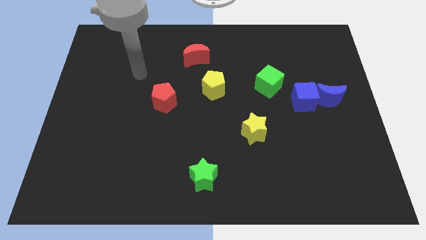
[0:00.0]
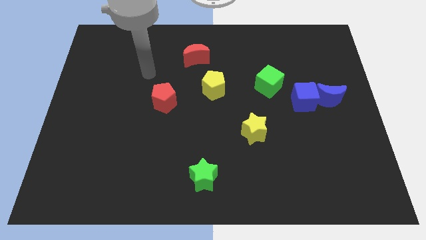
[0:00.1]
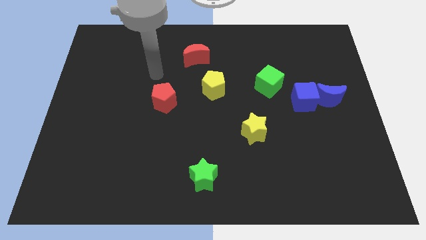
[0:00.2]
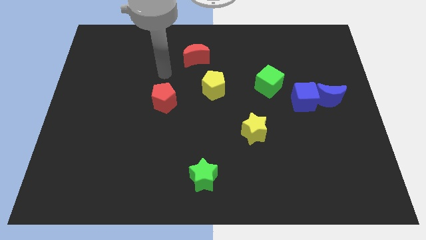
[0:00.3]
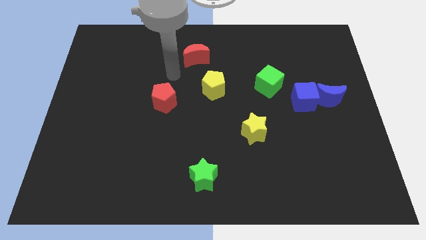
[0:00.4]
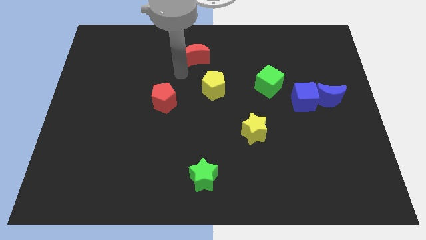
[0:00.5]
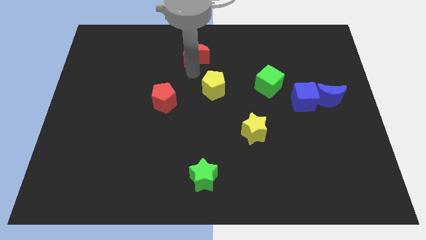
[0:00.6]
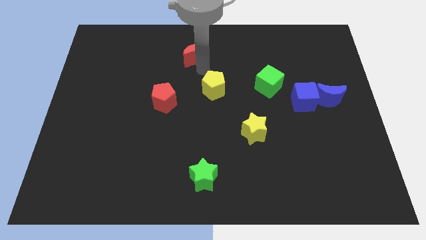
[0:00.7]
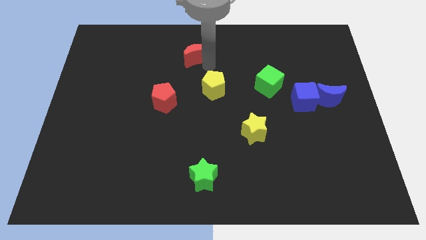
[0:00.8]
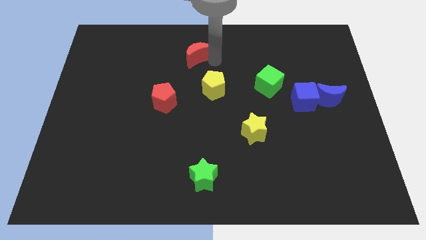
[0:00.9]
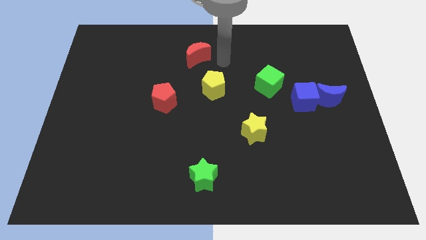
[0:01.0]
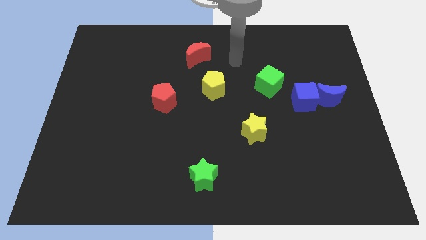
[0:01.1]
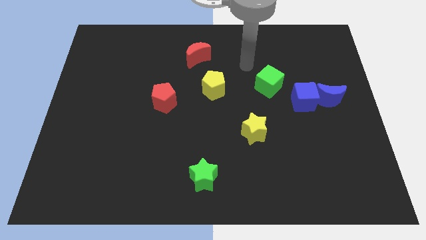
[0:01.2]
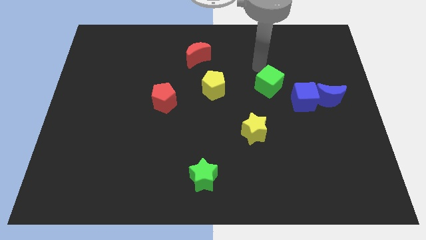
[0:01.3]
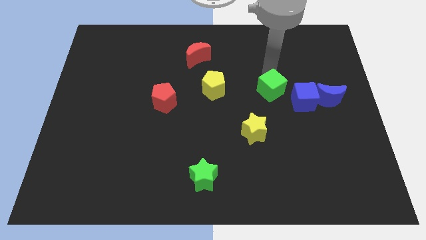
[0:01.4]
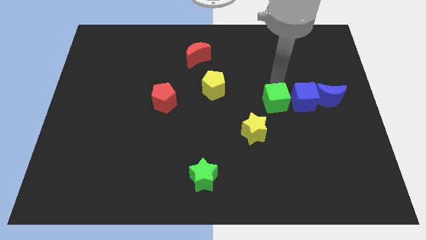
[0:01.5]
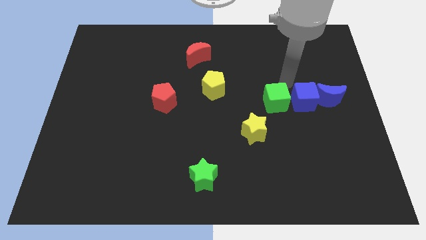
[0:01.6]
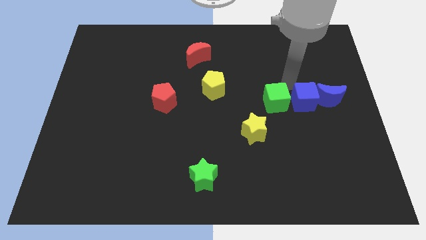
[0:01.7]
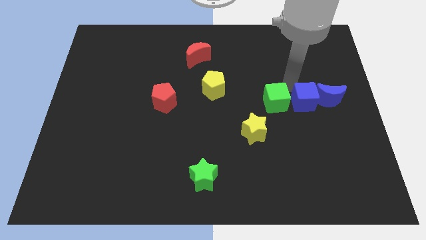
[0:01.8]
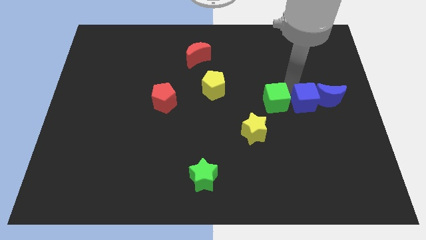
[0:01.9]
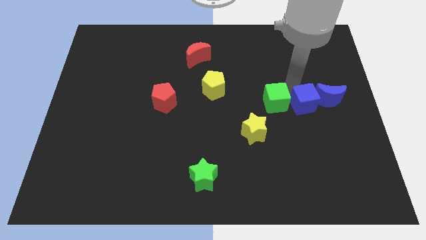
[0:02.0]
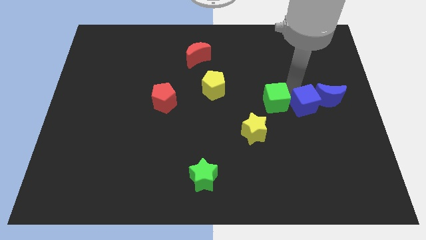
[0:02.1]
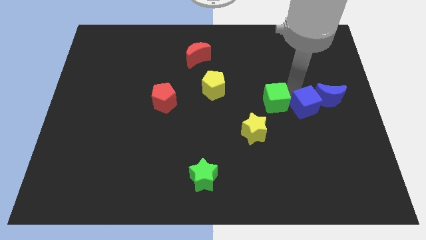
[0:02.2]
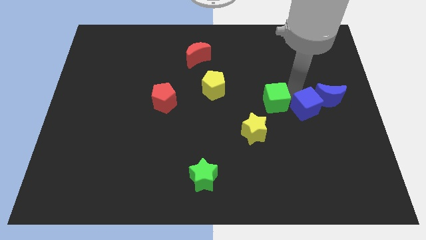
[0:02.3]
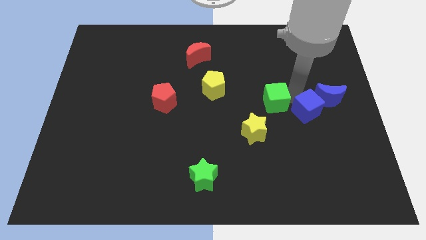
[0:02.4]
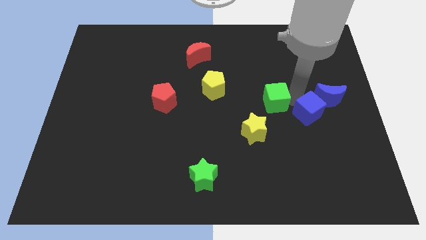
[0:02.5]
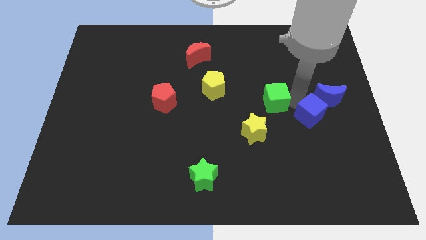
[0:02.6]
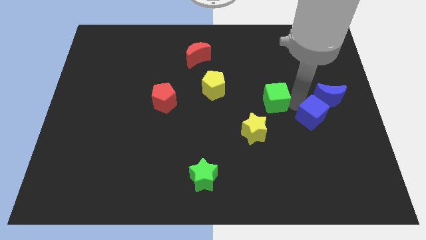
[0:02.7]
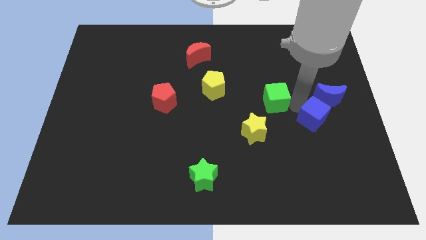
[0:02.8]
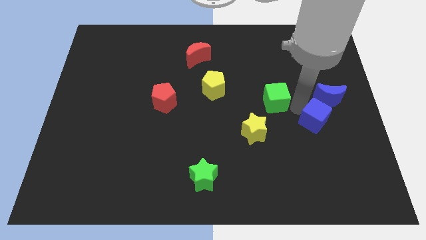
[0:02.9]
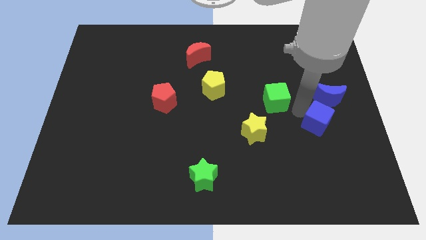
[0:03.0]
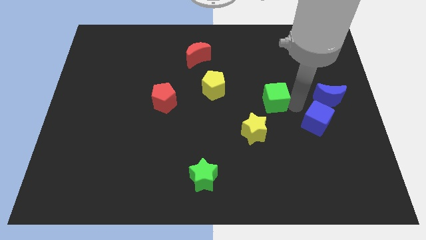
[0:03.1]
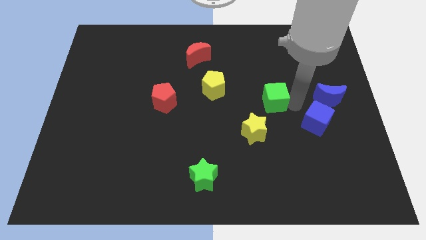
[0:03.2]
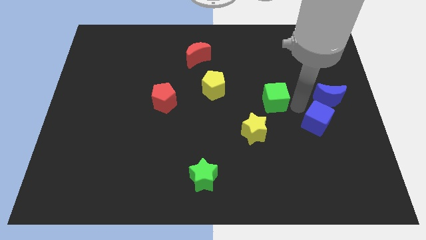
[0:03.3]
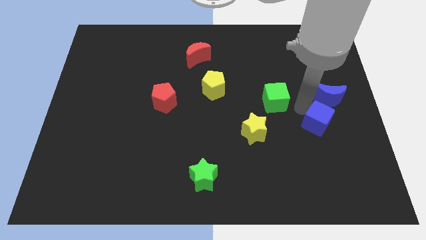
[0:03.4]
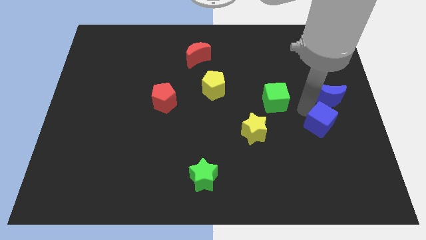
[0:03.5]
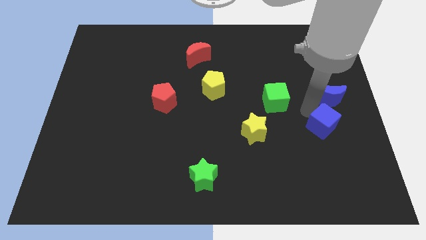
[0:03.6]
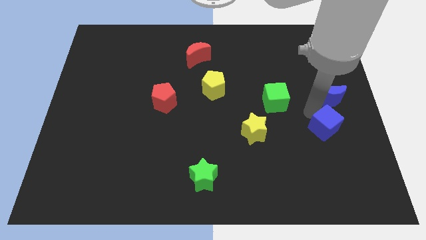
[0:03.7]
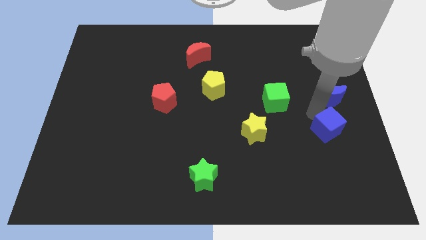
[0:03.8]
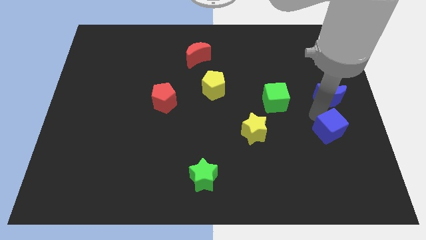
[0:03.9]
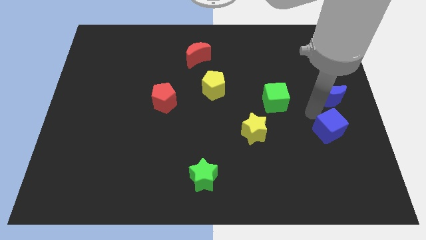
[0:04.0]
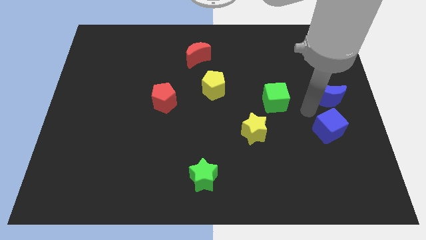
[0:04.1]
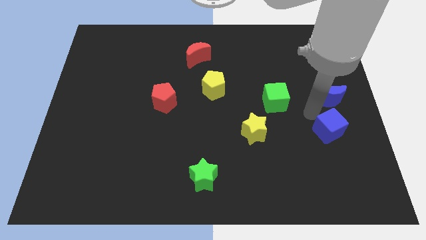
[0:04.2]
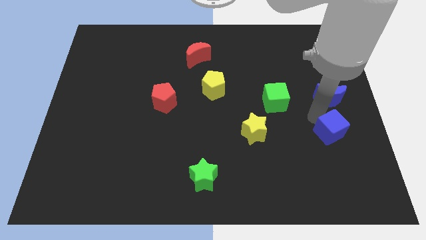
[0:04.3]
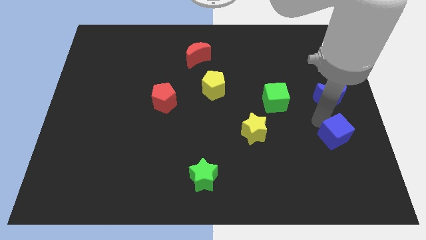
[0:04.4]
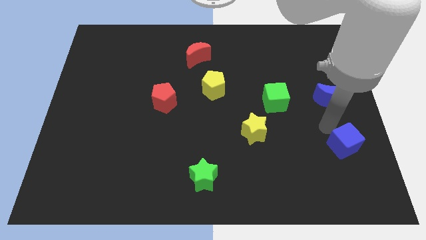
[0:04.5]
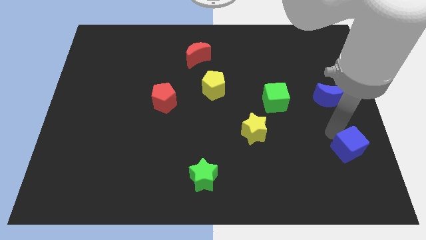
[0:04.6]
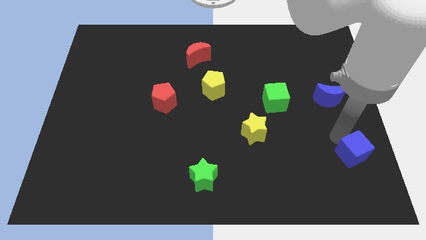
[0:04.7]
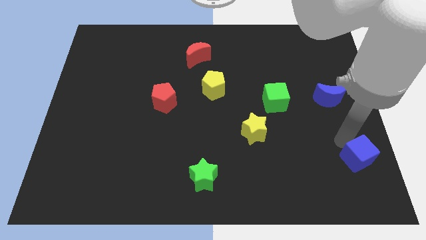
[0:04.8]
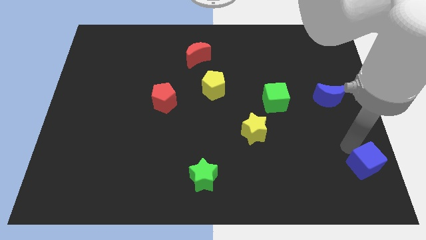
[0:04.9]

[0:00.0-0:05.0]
push the blue cube to the bottom right of the board

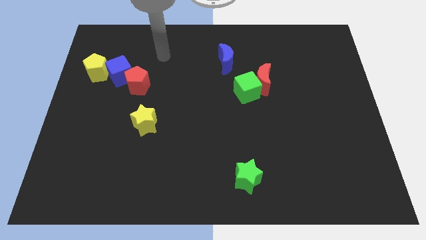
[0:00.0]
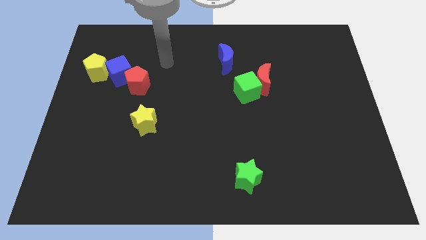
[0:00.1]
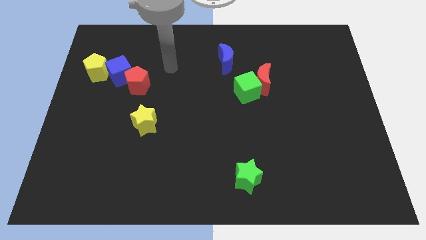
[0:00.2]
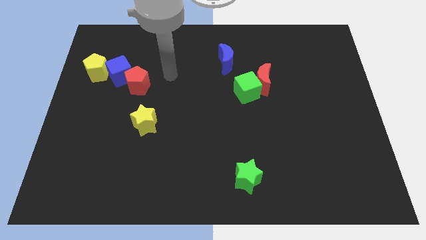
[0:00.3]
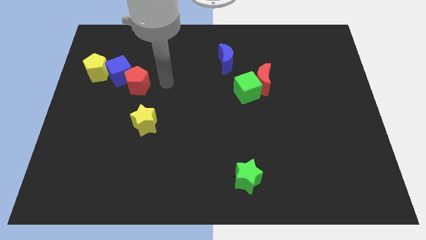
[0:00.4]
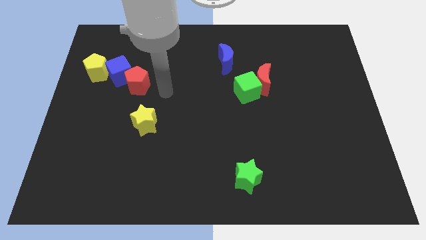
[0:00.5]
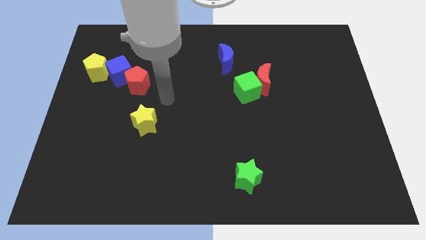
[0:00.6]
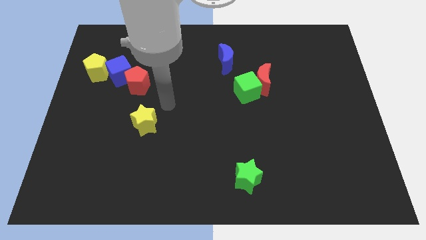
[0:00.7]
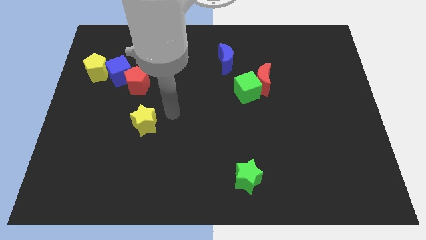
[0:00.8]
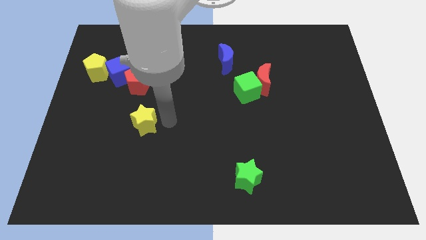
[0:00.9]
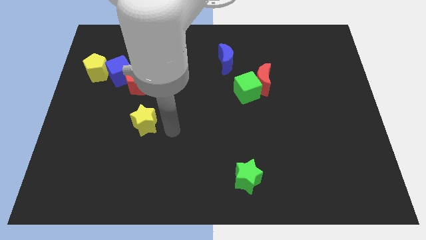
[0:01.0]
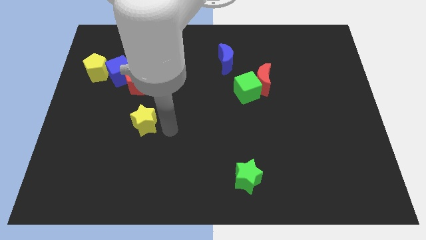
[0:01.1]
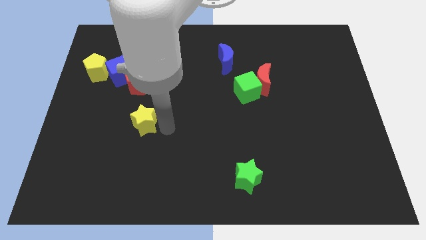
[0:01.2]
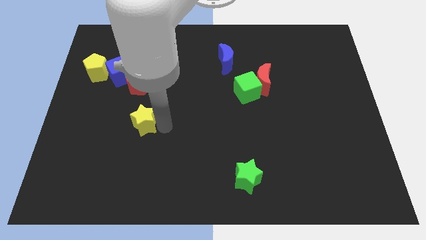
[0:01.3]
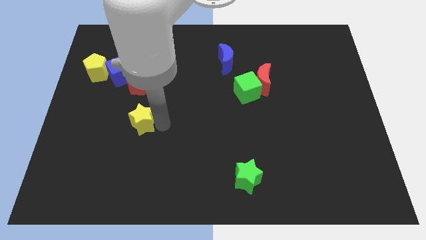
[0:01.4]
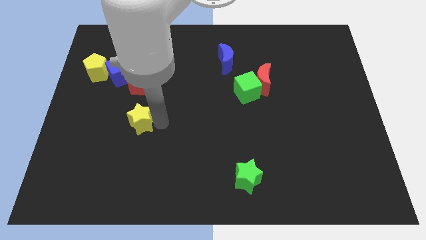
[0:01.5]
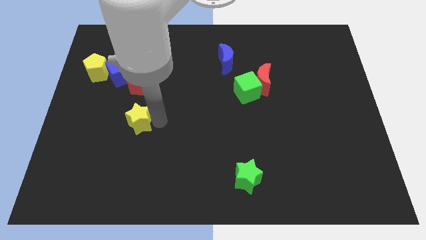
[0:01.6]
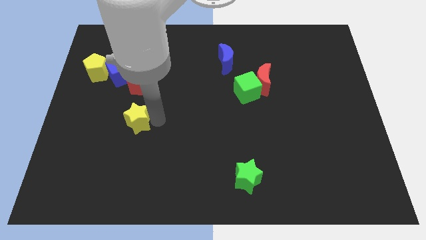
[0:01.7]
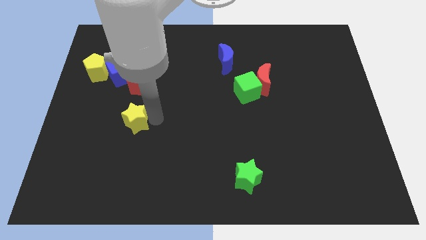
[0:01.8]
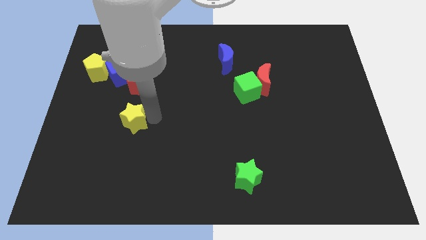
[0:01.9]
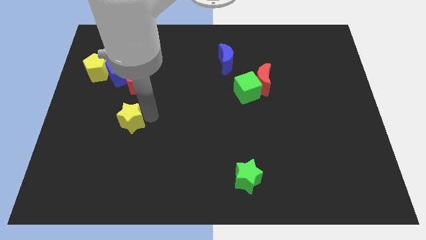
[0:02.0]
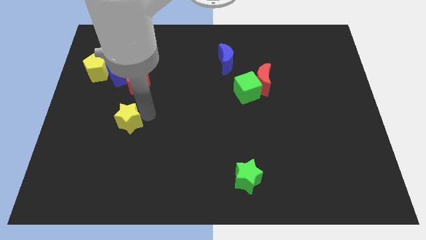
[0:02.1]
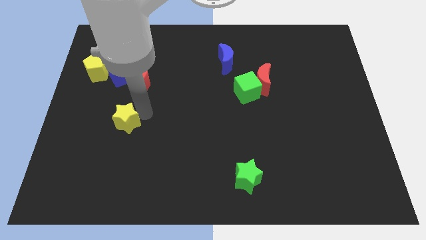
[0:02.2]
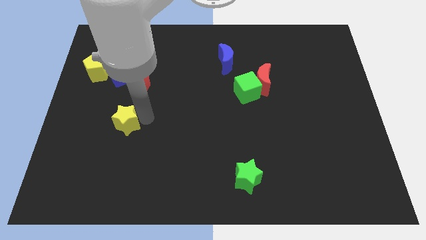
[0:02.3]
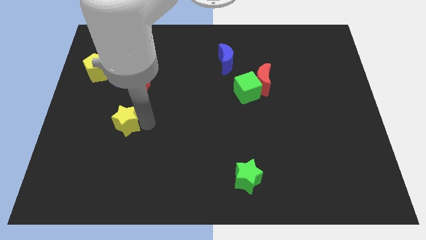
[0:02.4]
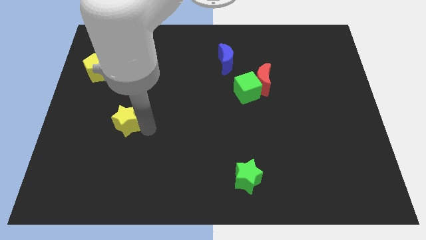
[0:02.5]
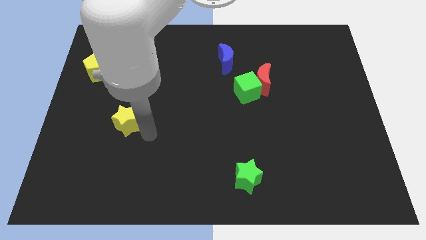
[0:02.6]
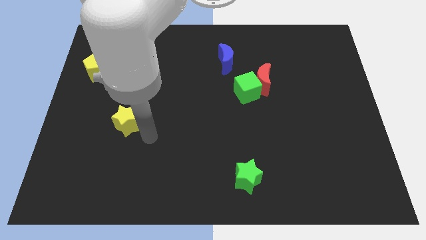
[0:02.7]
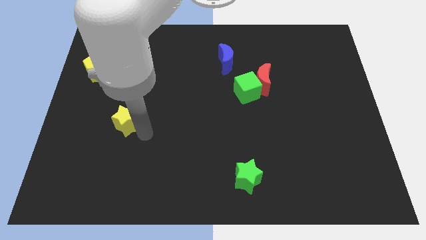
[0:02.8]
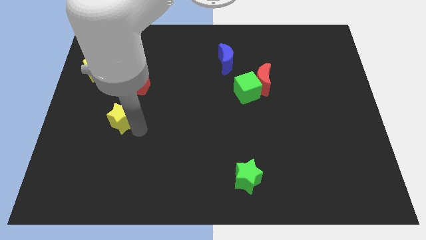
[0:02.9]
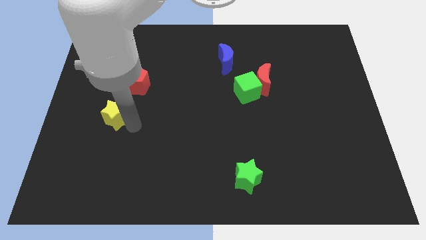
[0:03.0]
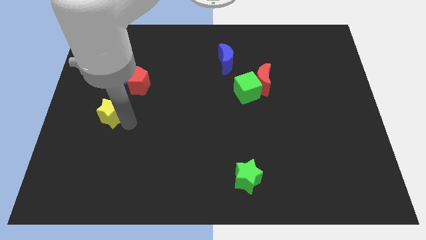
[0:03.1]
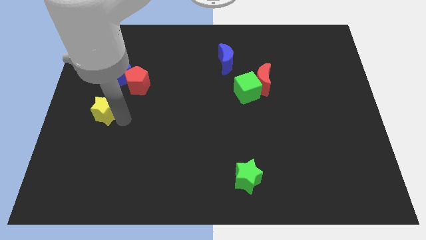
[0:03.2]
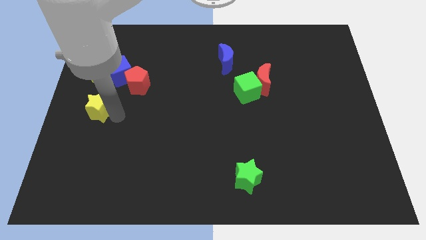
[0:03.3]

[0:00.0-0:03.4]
push the yellow star to the center left
